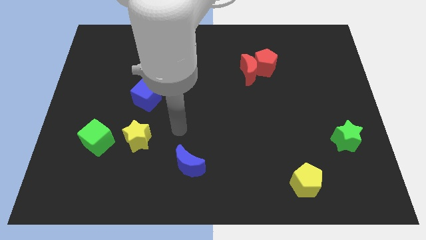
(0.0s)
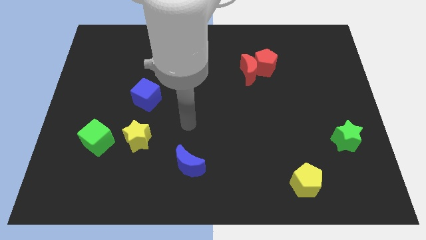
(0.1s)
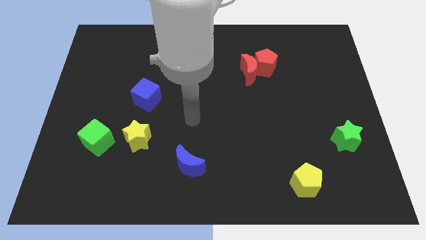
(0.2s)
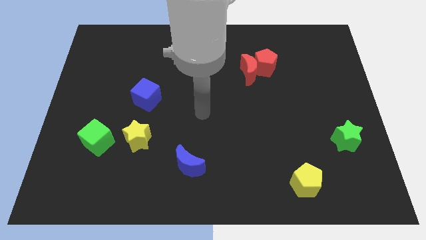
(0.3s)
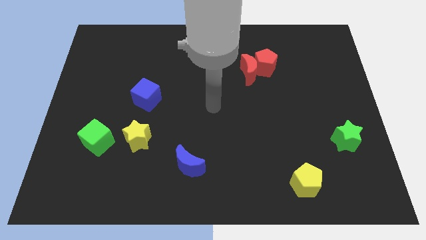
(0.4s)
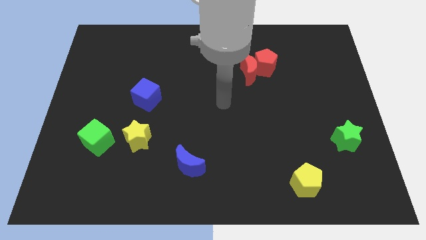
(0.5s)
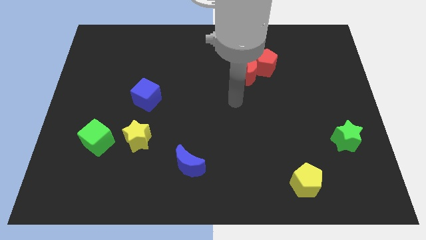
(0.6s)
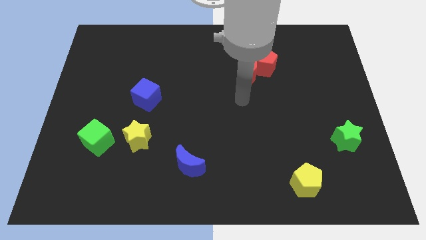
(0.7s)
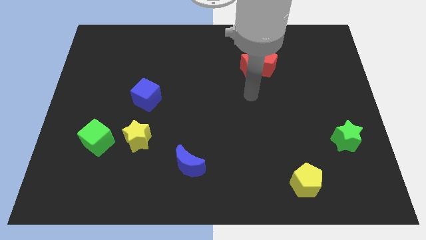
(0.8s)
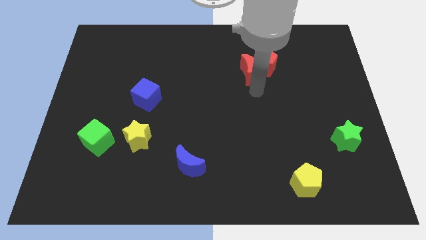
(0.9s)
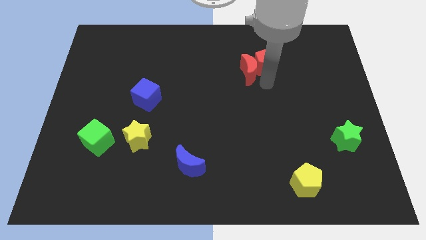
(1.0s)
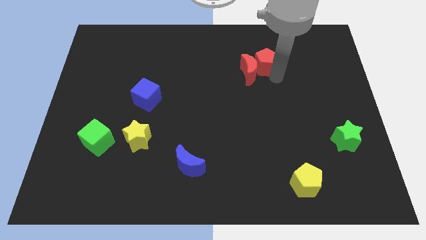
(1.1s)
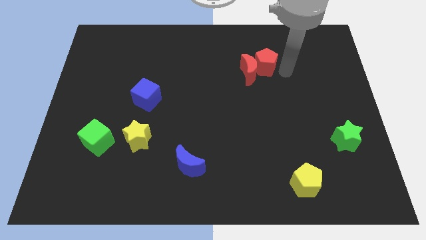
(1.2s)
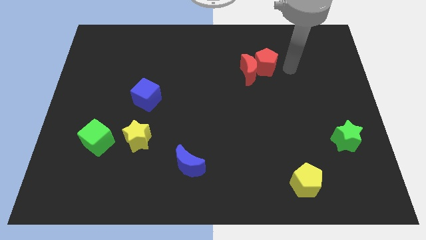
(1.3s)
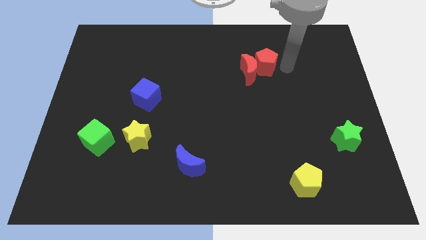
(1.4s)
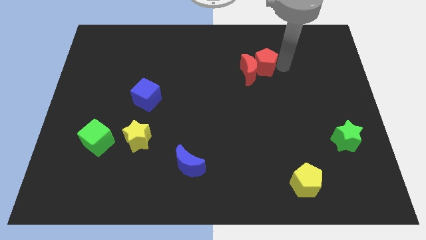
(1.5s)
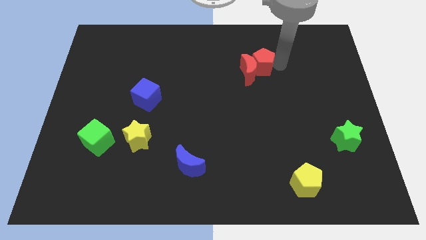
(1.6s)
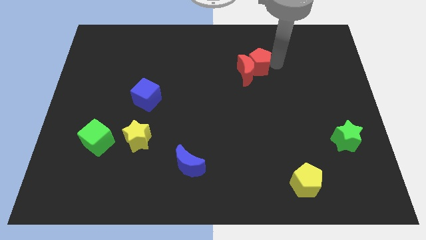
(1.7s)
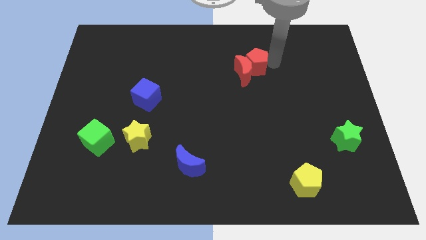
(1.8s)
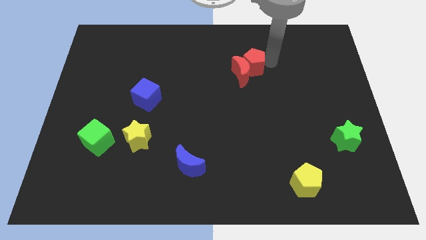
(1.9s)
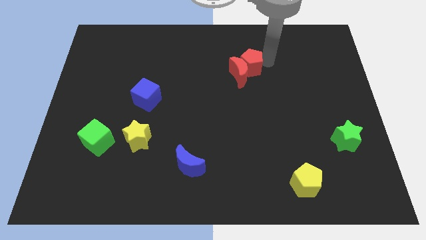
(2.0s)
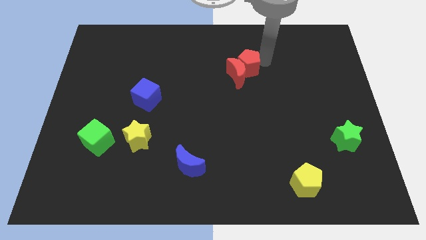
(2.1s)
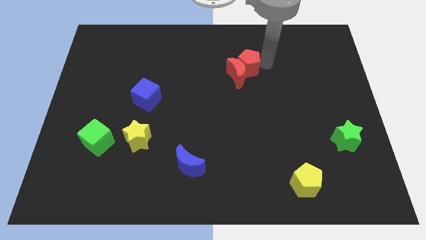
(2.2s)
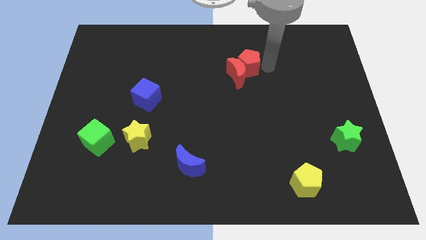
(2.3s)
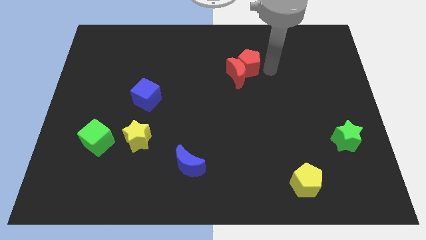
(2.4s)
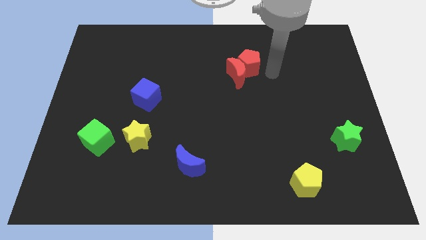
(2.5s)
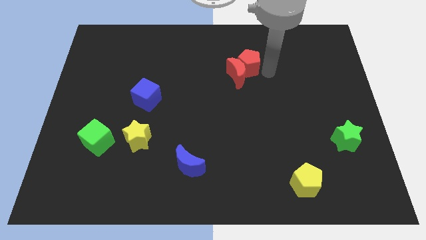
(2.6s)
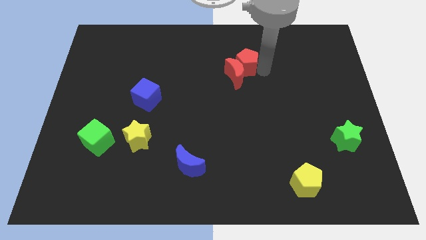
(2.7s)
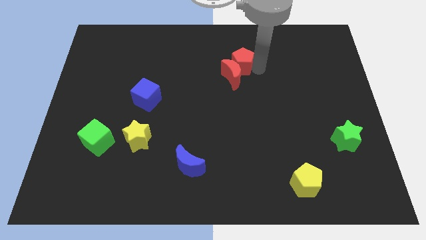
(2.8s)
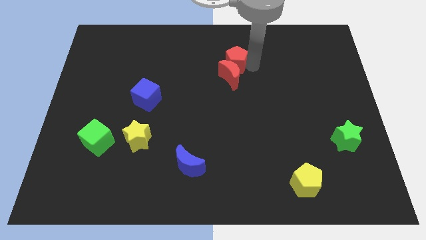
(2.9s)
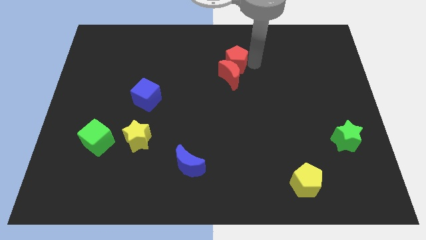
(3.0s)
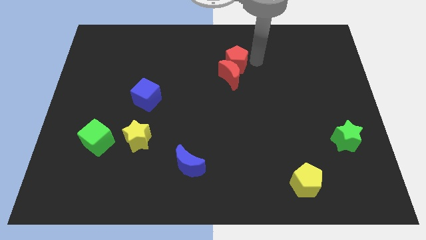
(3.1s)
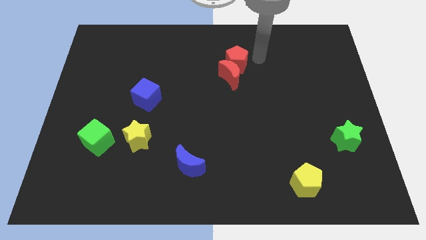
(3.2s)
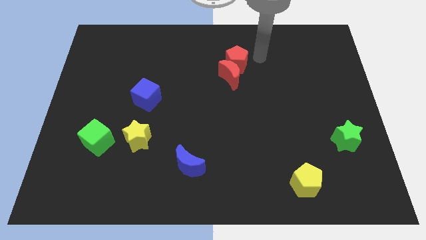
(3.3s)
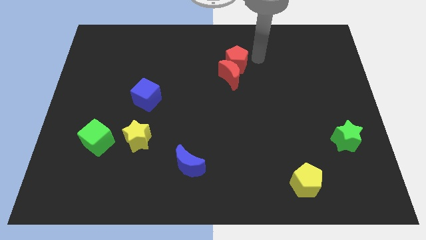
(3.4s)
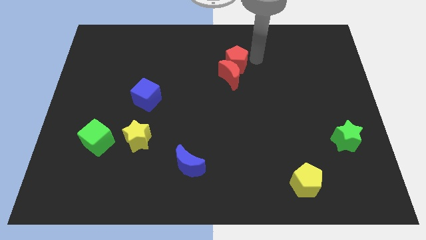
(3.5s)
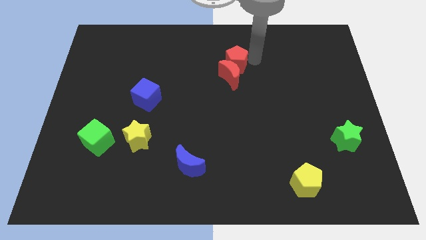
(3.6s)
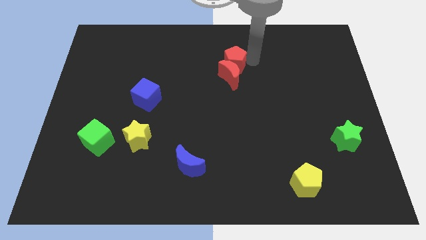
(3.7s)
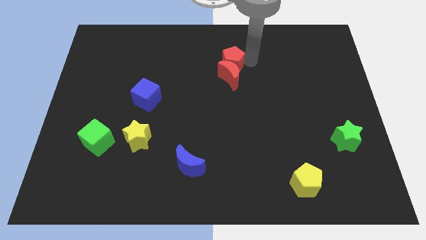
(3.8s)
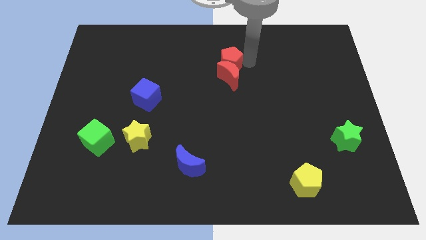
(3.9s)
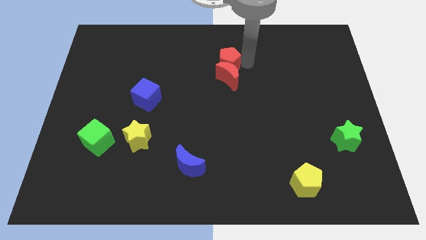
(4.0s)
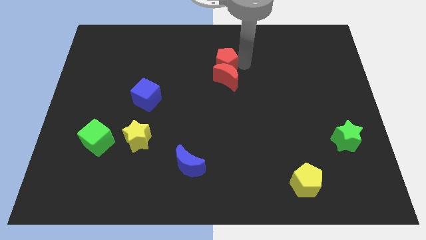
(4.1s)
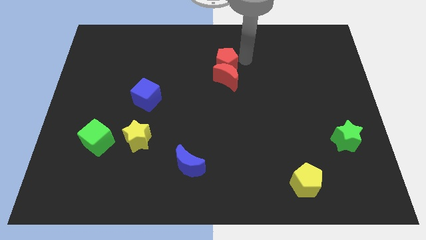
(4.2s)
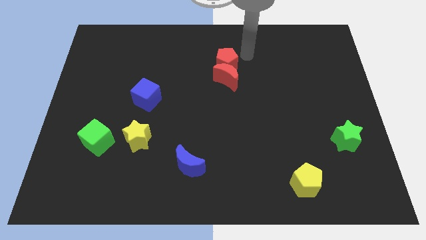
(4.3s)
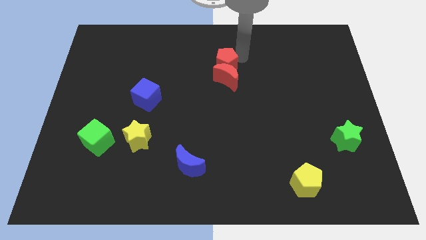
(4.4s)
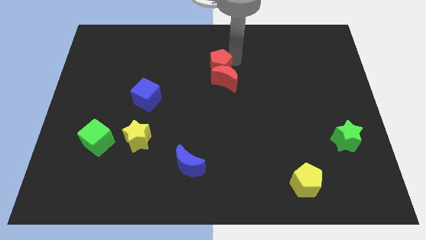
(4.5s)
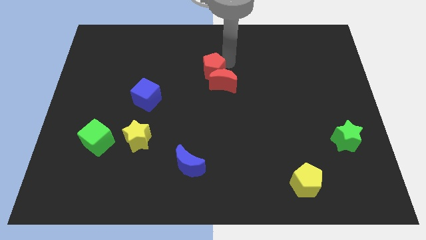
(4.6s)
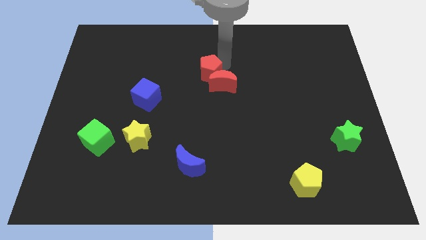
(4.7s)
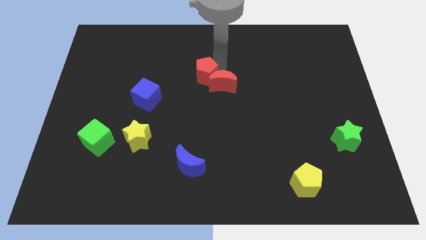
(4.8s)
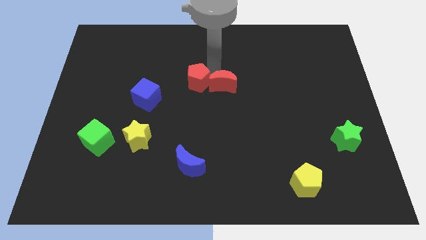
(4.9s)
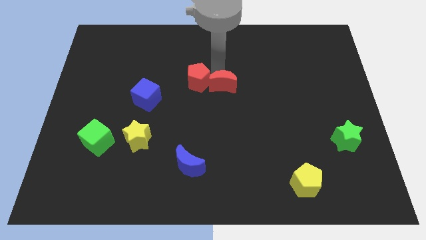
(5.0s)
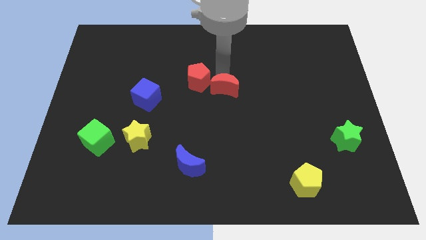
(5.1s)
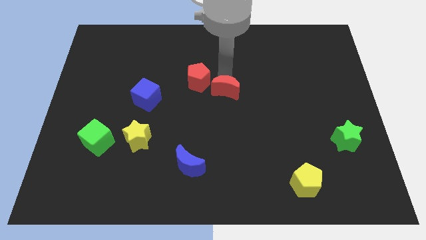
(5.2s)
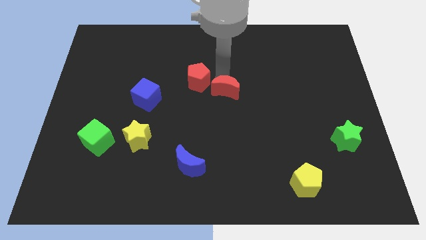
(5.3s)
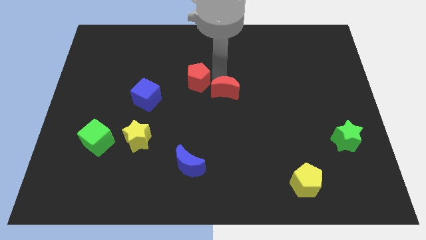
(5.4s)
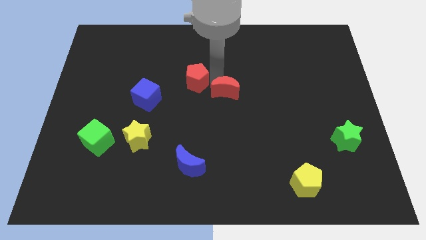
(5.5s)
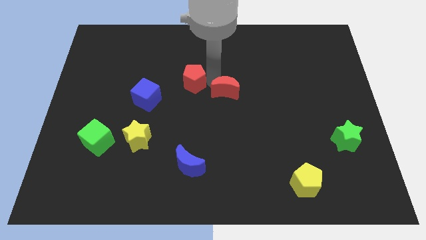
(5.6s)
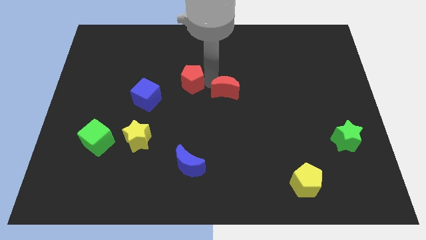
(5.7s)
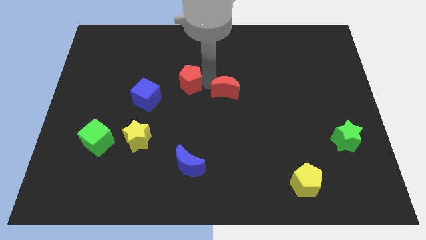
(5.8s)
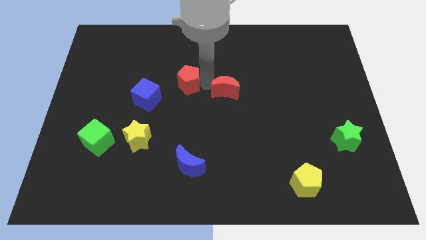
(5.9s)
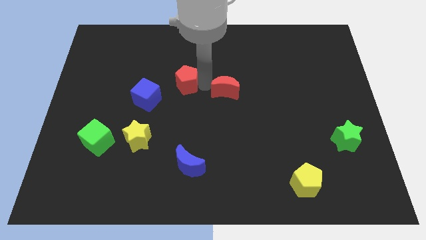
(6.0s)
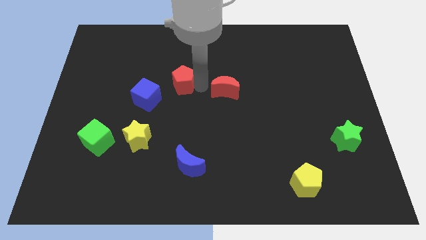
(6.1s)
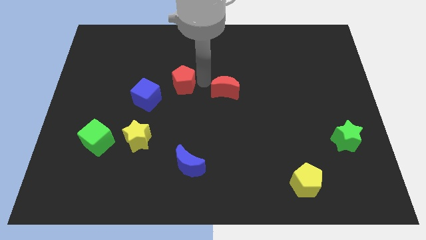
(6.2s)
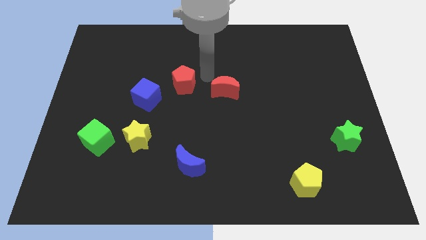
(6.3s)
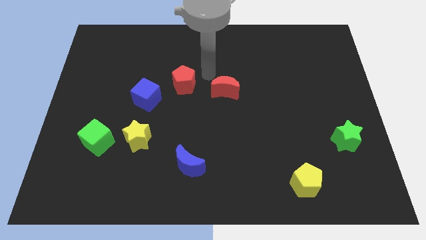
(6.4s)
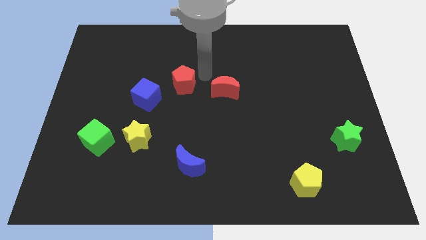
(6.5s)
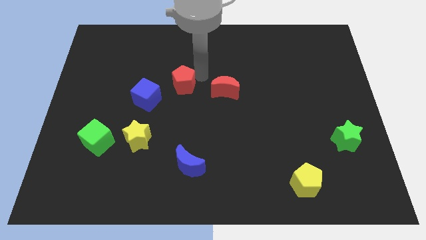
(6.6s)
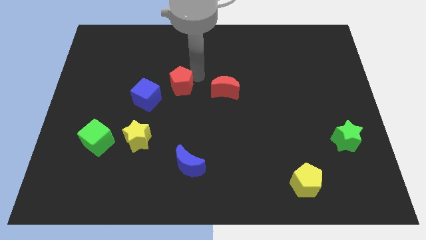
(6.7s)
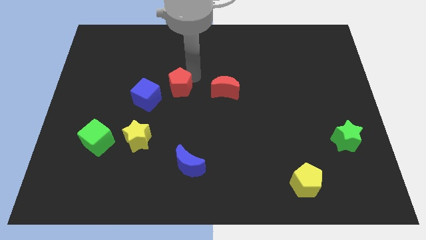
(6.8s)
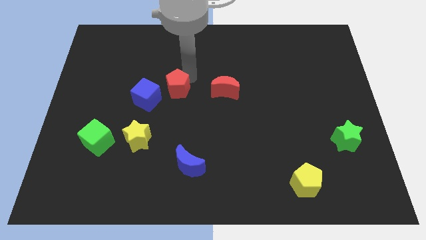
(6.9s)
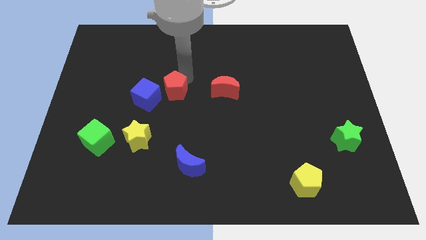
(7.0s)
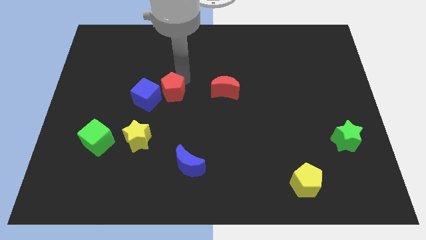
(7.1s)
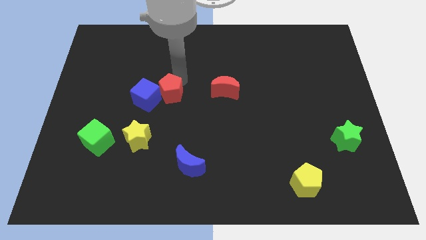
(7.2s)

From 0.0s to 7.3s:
put the red pentagon next to the blue cube
